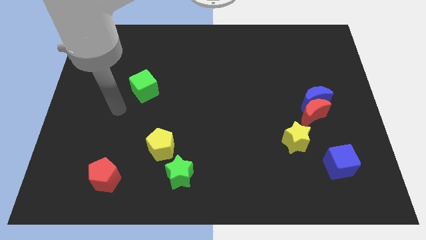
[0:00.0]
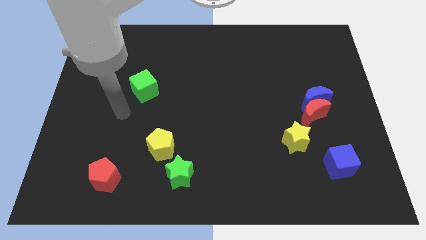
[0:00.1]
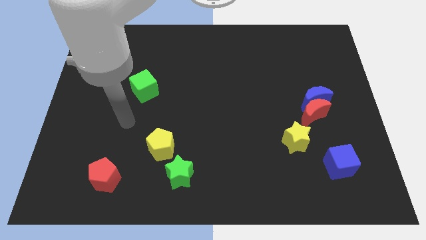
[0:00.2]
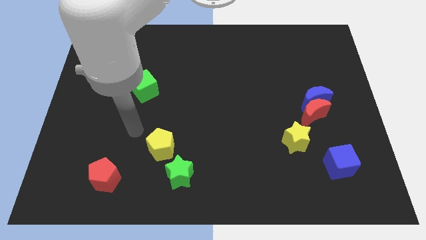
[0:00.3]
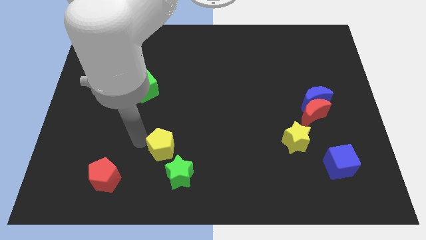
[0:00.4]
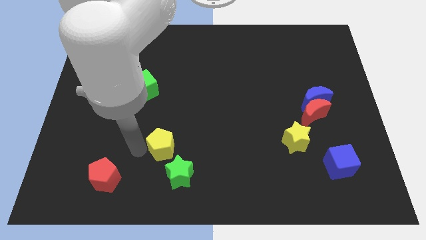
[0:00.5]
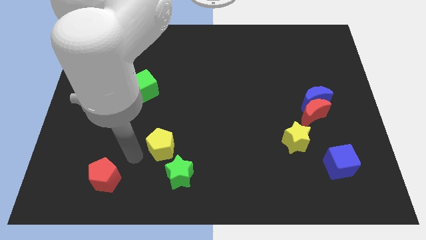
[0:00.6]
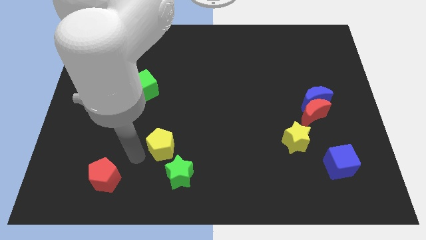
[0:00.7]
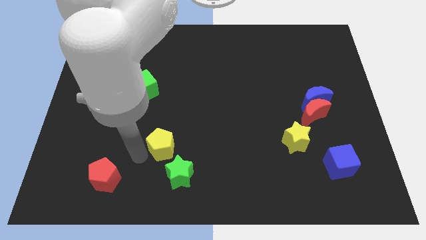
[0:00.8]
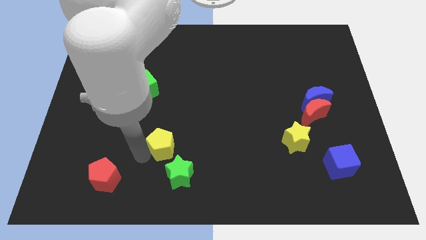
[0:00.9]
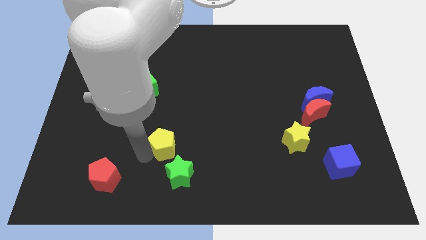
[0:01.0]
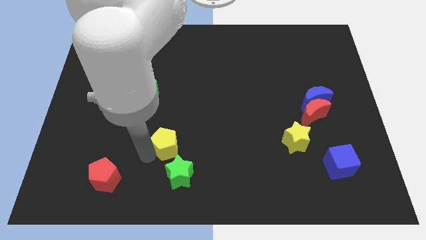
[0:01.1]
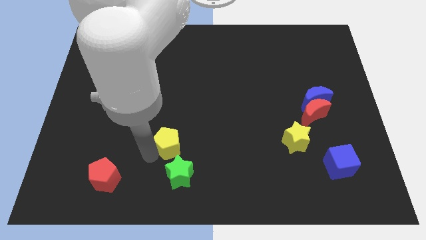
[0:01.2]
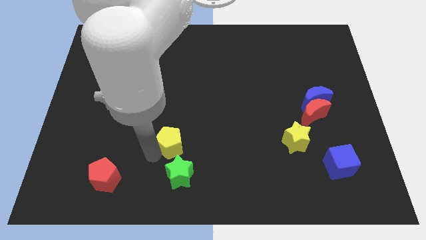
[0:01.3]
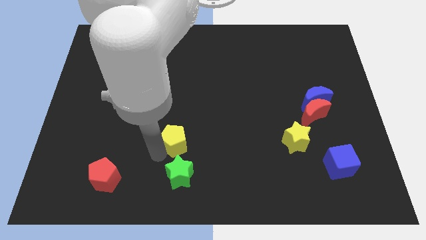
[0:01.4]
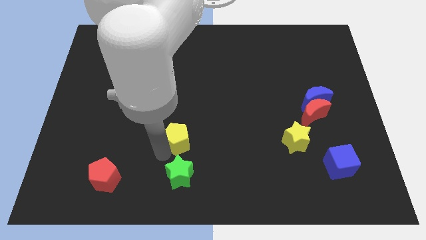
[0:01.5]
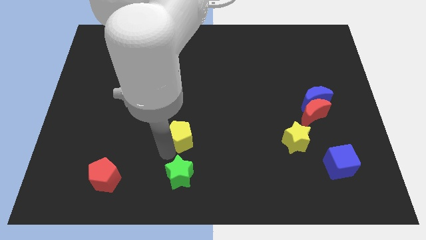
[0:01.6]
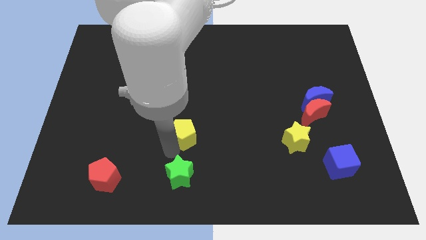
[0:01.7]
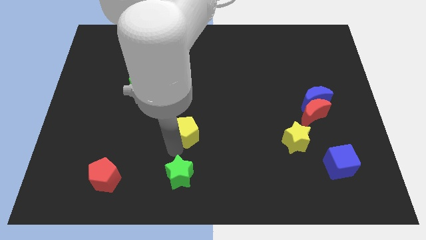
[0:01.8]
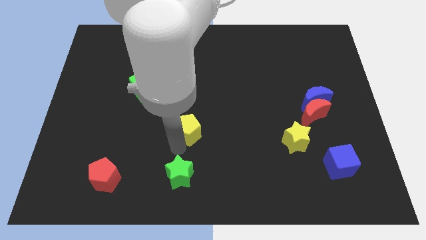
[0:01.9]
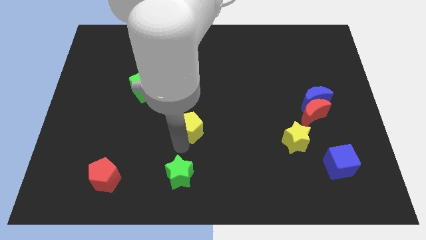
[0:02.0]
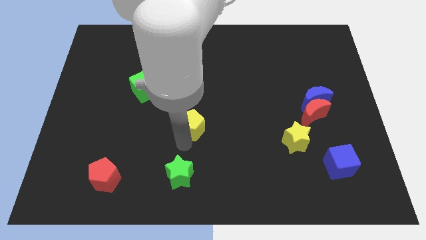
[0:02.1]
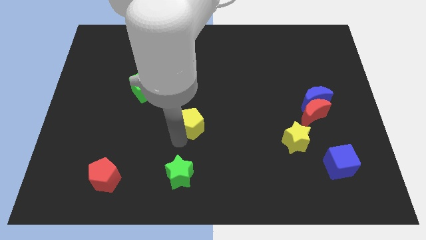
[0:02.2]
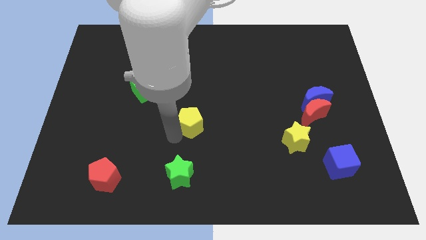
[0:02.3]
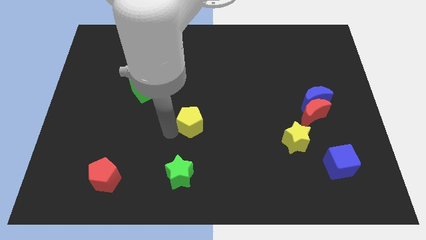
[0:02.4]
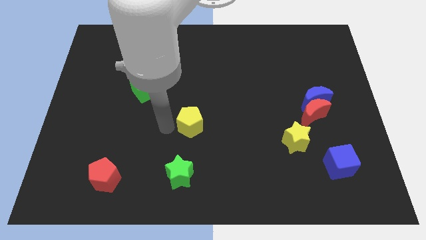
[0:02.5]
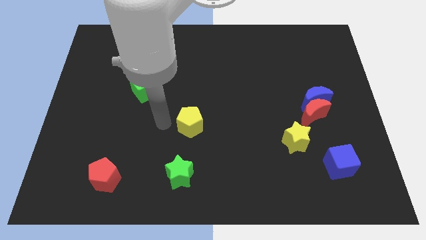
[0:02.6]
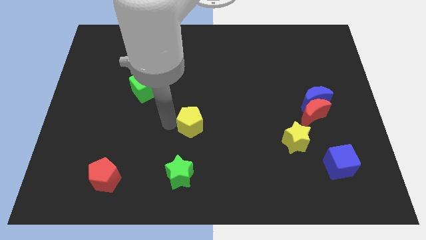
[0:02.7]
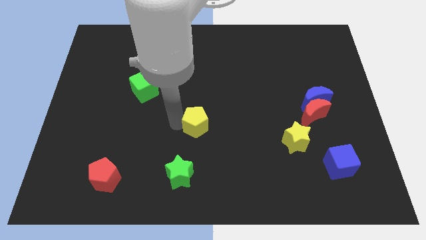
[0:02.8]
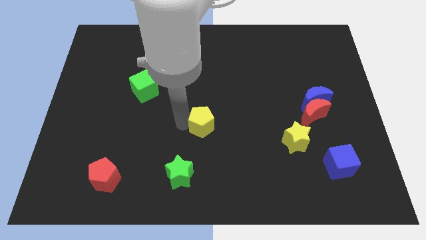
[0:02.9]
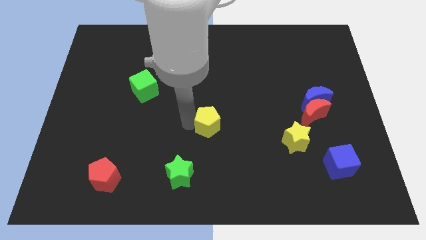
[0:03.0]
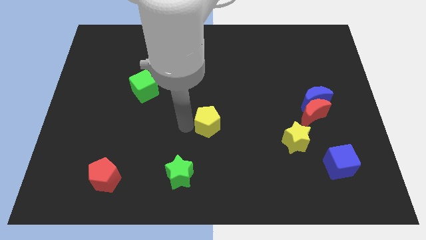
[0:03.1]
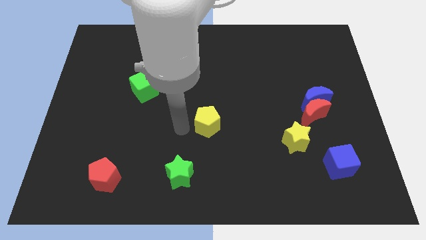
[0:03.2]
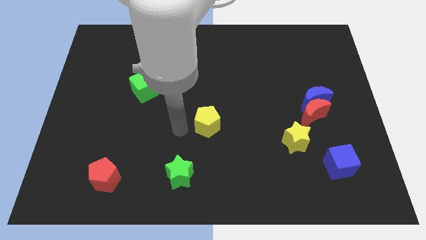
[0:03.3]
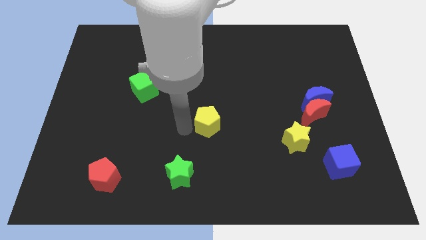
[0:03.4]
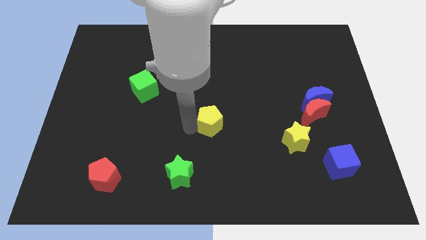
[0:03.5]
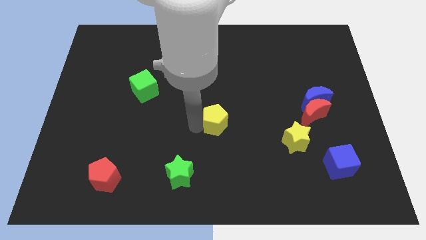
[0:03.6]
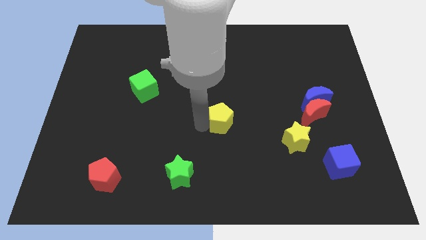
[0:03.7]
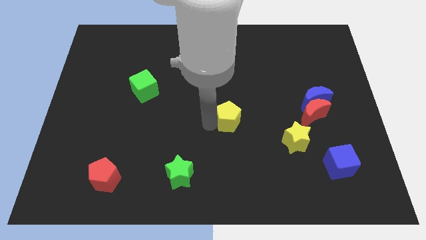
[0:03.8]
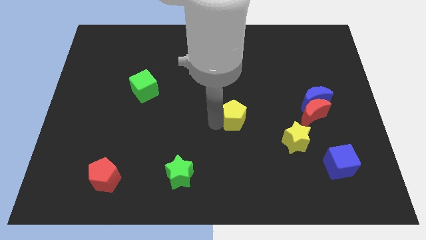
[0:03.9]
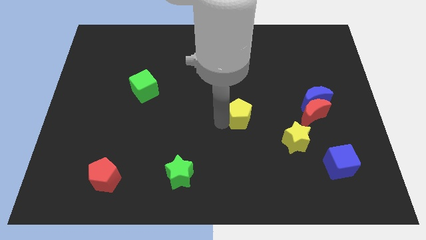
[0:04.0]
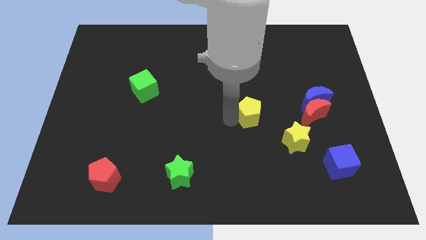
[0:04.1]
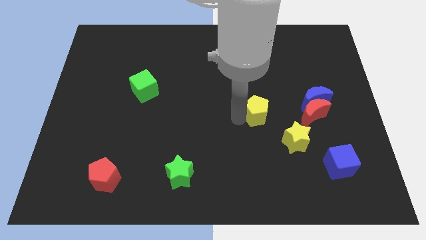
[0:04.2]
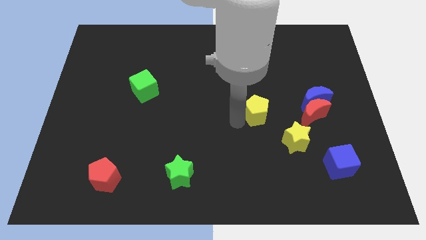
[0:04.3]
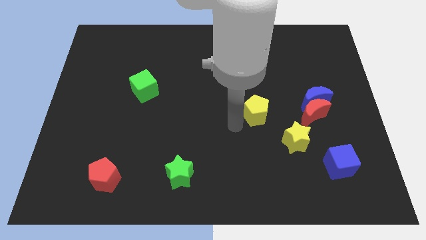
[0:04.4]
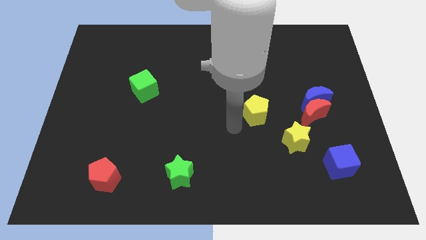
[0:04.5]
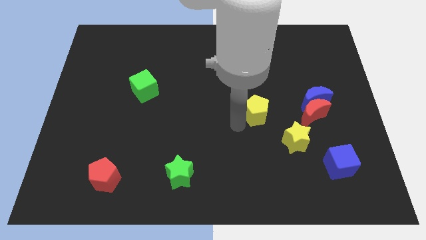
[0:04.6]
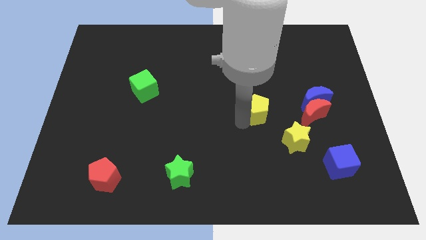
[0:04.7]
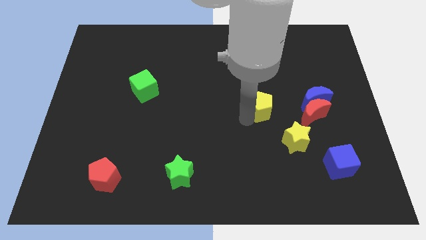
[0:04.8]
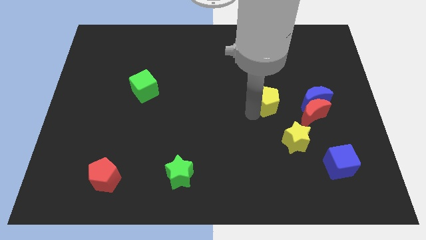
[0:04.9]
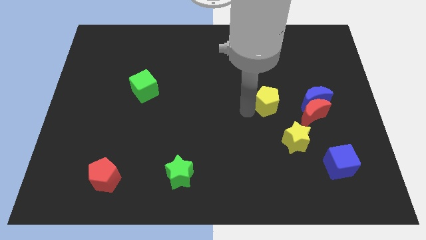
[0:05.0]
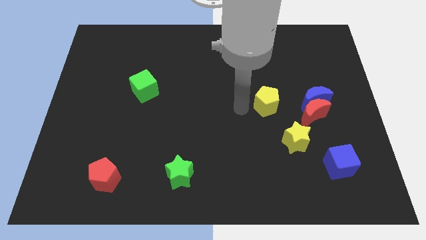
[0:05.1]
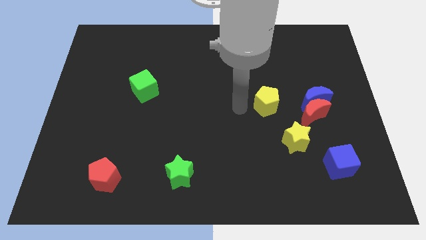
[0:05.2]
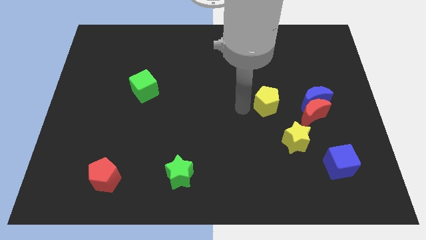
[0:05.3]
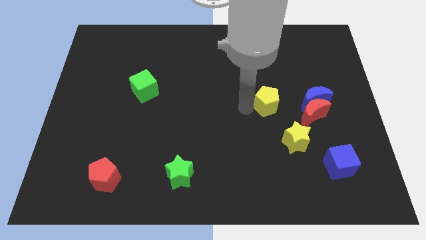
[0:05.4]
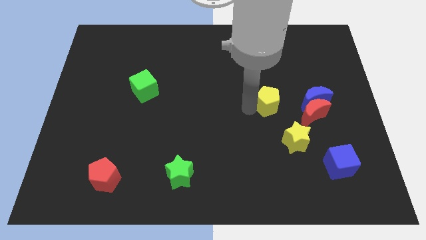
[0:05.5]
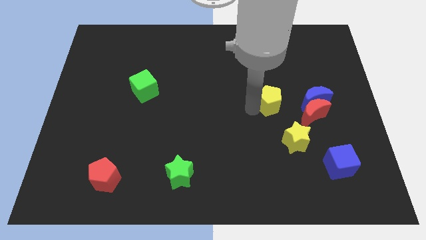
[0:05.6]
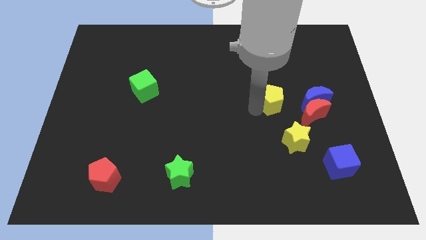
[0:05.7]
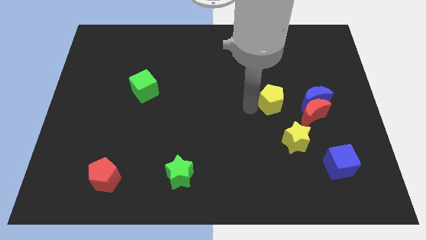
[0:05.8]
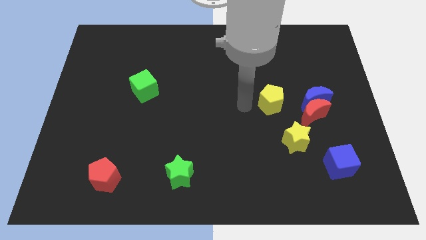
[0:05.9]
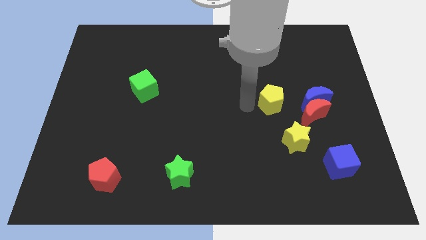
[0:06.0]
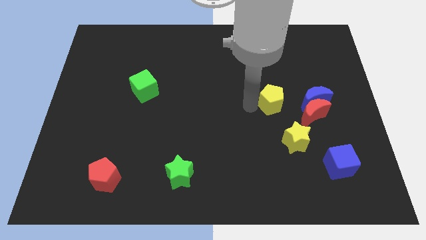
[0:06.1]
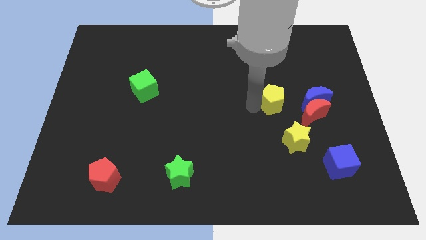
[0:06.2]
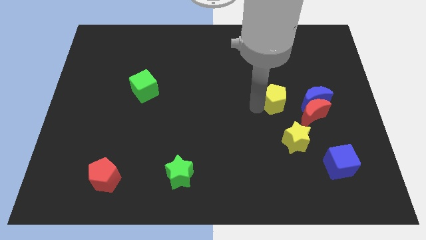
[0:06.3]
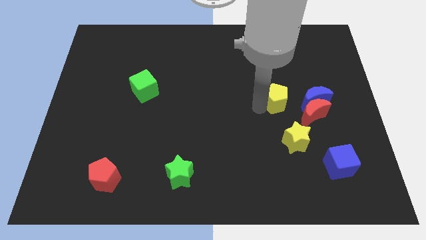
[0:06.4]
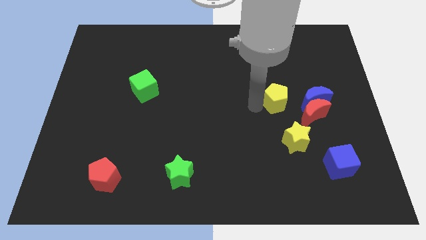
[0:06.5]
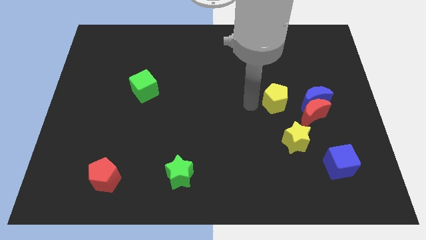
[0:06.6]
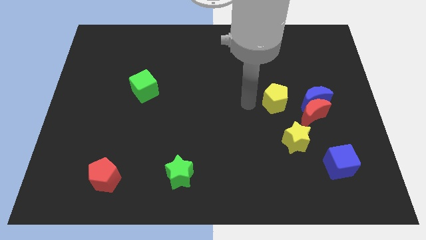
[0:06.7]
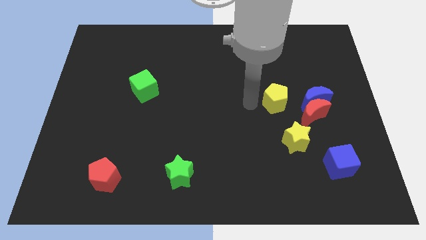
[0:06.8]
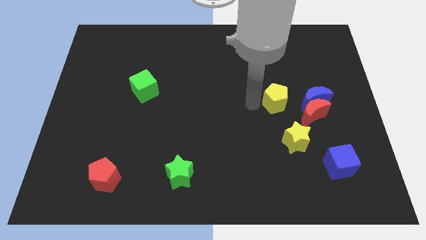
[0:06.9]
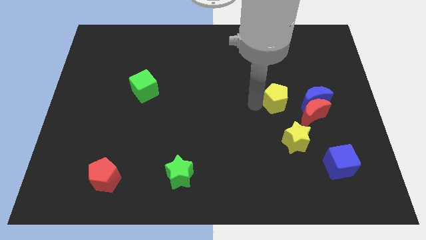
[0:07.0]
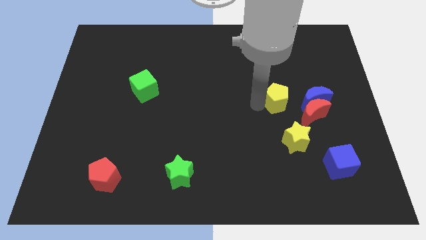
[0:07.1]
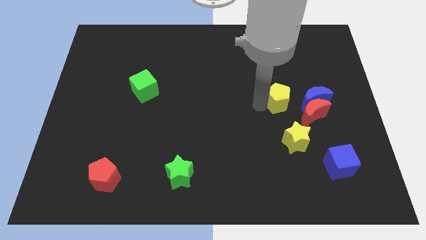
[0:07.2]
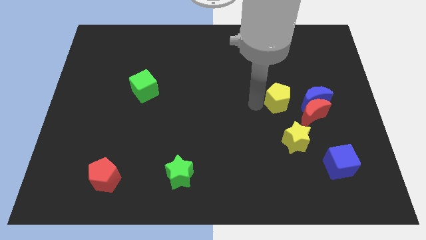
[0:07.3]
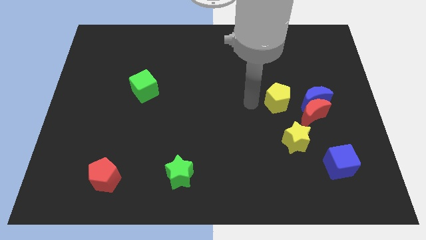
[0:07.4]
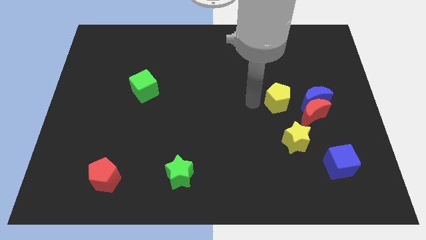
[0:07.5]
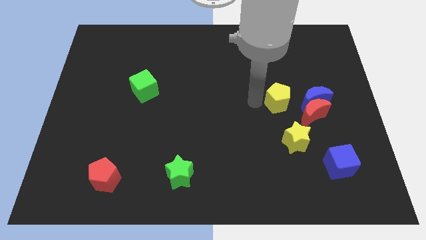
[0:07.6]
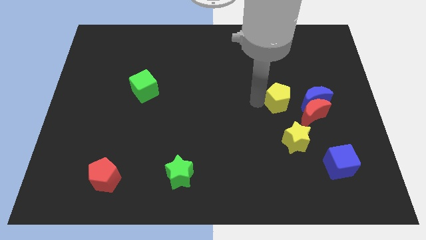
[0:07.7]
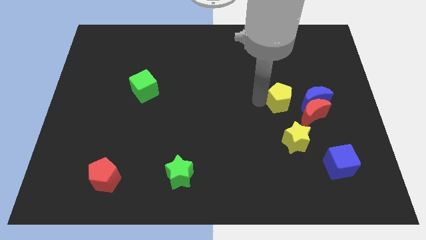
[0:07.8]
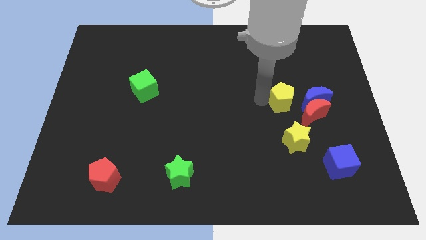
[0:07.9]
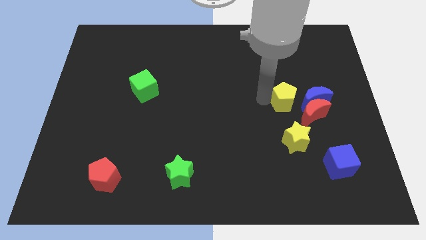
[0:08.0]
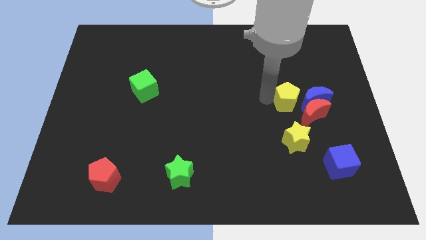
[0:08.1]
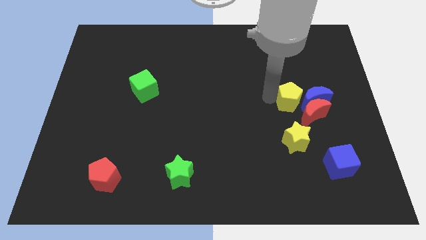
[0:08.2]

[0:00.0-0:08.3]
slide the yellow pentagon towards the blue moon
